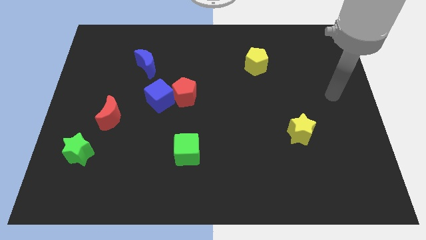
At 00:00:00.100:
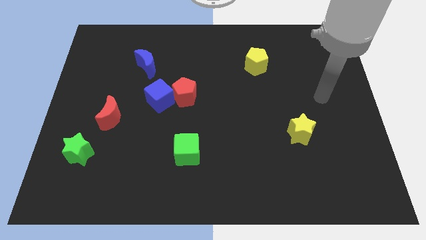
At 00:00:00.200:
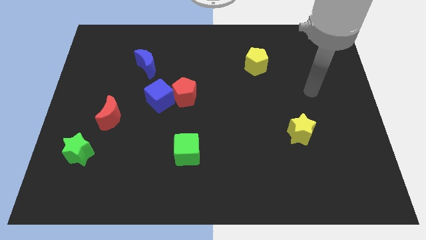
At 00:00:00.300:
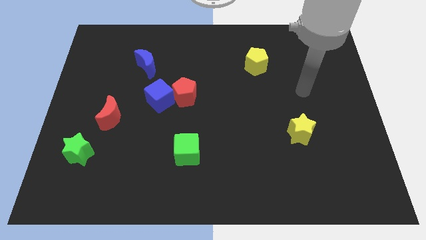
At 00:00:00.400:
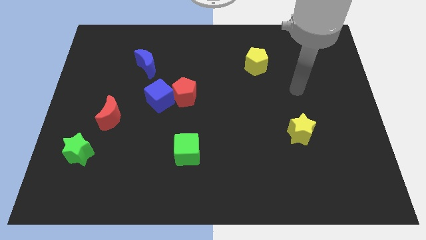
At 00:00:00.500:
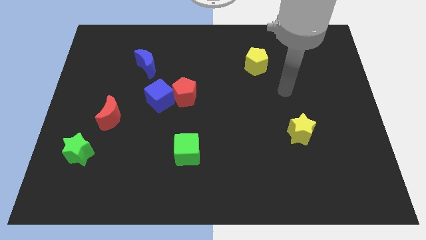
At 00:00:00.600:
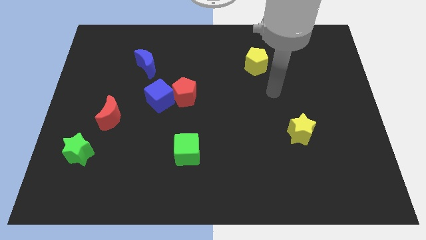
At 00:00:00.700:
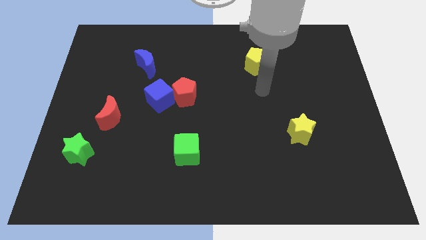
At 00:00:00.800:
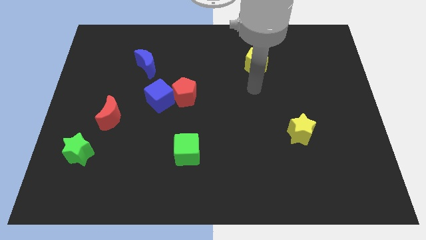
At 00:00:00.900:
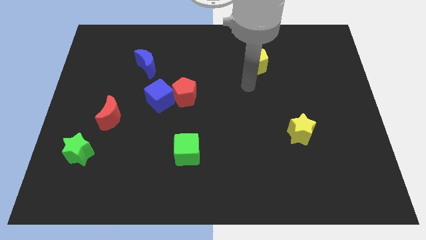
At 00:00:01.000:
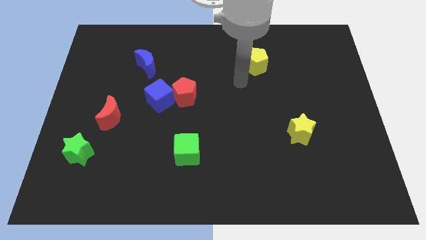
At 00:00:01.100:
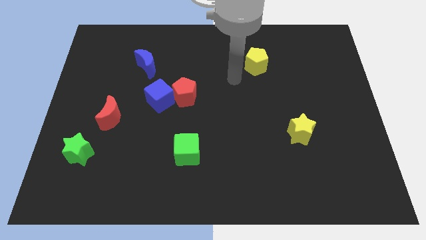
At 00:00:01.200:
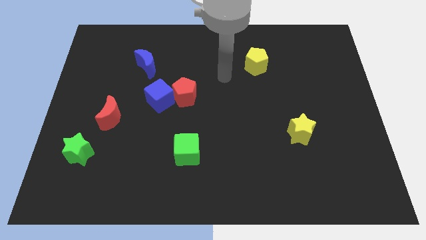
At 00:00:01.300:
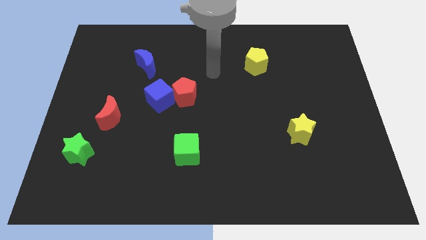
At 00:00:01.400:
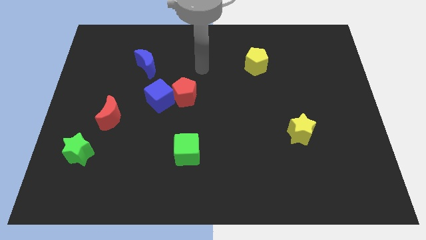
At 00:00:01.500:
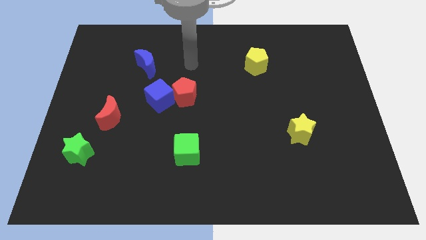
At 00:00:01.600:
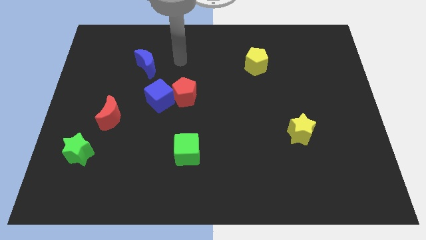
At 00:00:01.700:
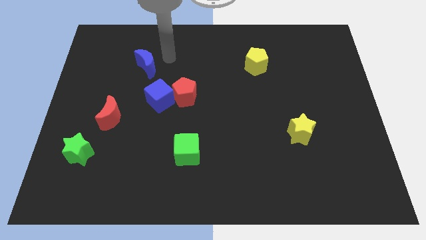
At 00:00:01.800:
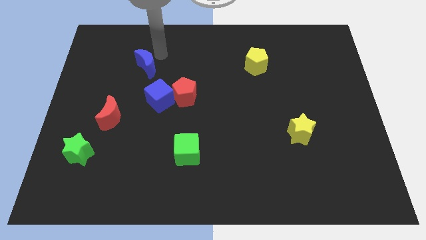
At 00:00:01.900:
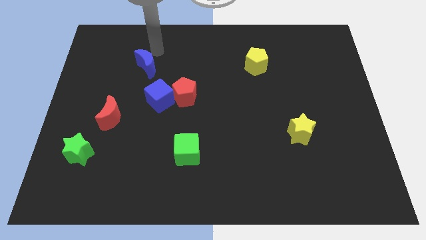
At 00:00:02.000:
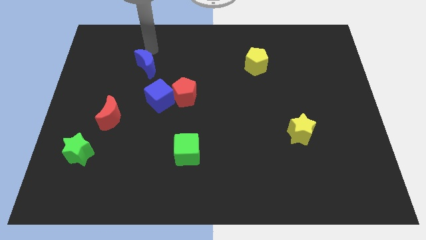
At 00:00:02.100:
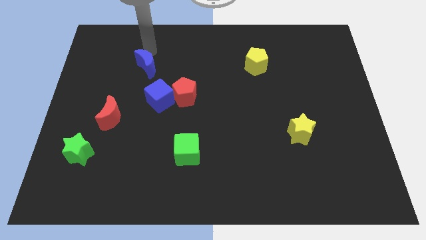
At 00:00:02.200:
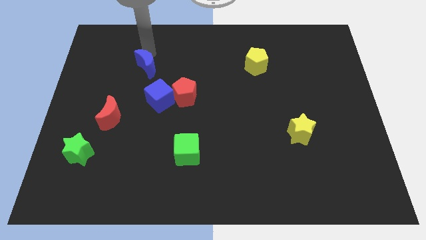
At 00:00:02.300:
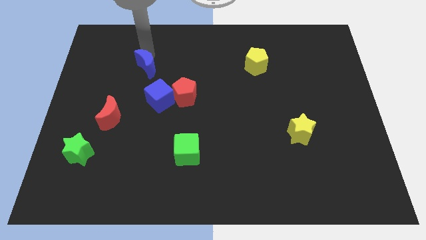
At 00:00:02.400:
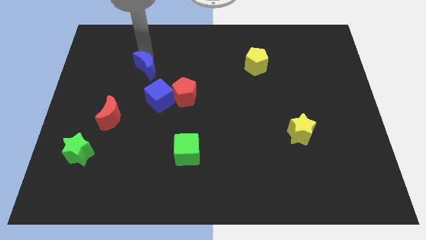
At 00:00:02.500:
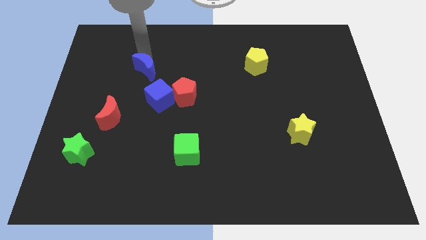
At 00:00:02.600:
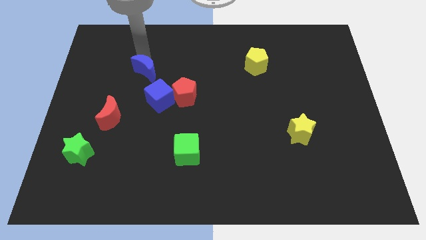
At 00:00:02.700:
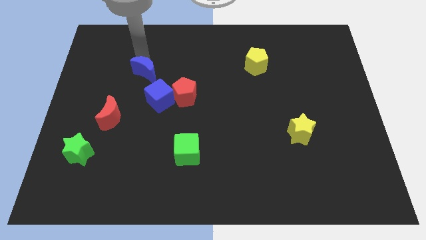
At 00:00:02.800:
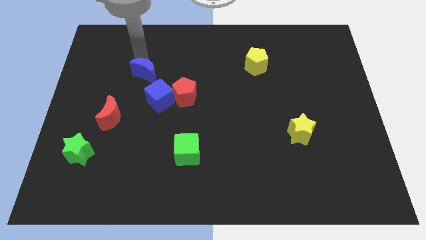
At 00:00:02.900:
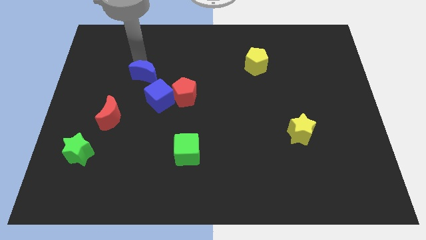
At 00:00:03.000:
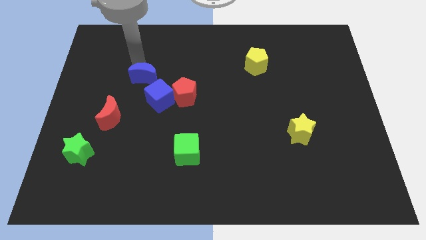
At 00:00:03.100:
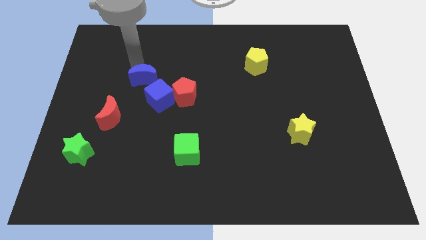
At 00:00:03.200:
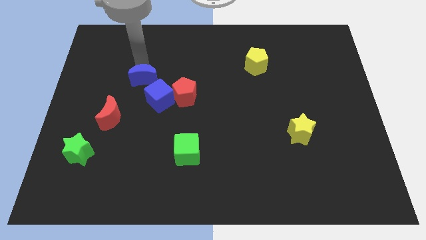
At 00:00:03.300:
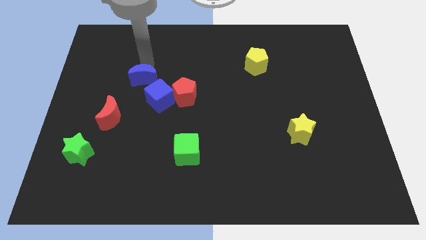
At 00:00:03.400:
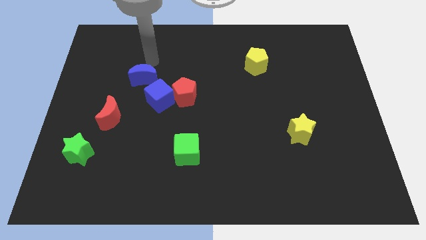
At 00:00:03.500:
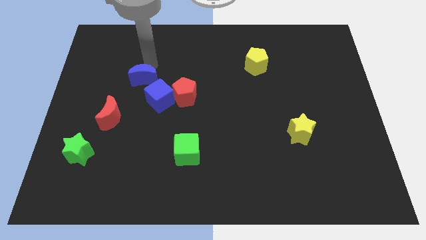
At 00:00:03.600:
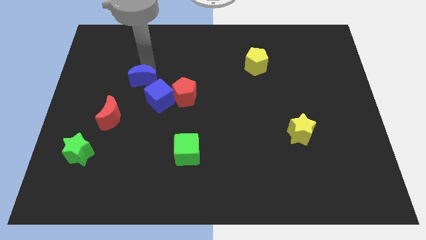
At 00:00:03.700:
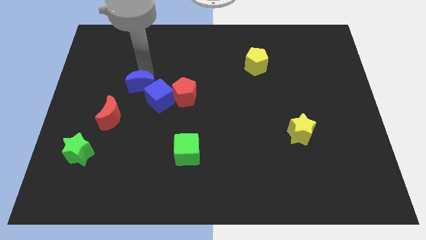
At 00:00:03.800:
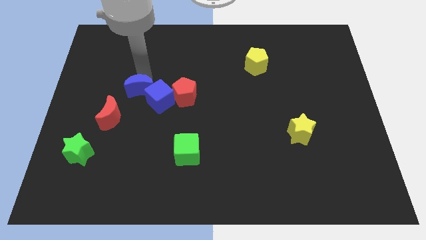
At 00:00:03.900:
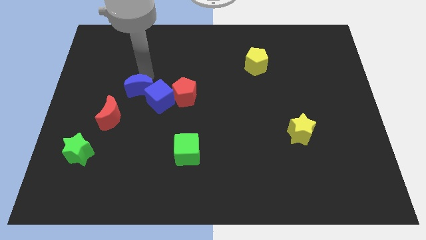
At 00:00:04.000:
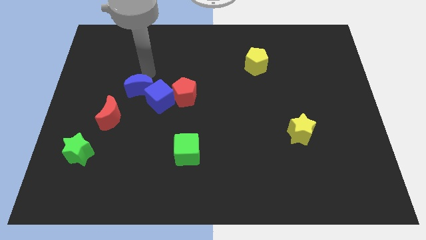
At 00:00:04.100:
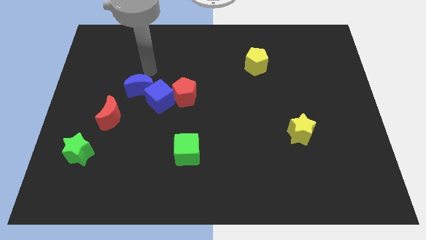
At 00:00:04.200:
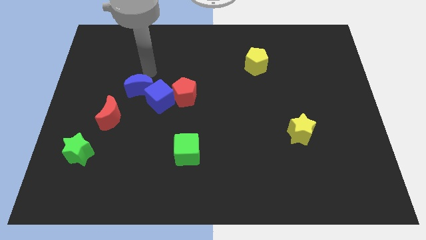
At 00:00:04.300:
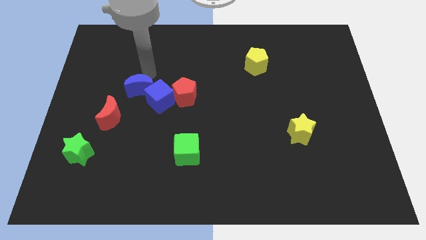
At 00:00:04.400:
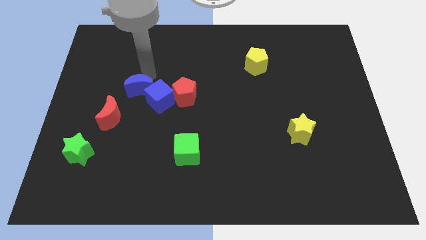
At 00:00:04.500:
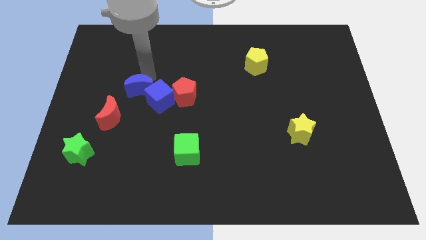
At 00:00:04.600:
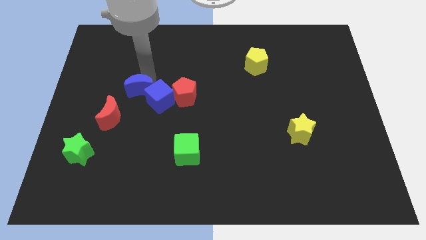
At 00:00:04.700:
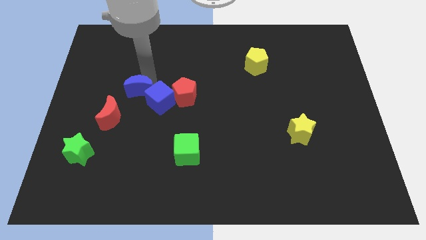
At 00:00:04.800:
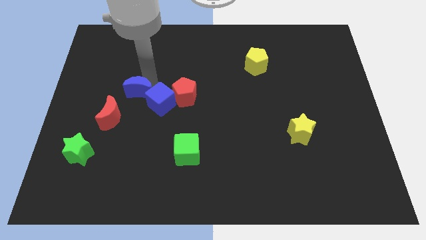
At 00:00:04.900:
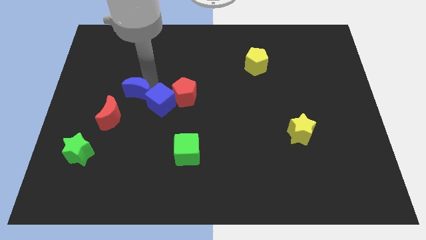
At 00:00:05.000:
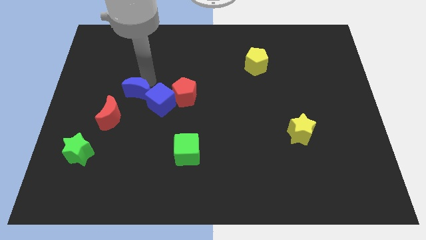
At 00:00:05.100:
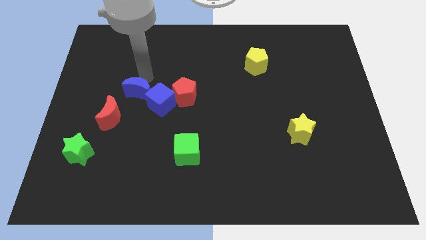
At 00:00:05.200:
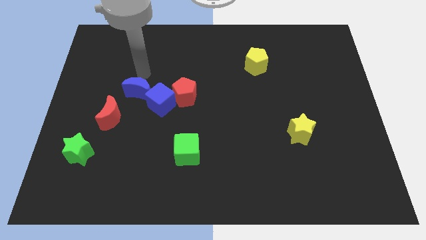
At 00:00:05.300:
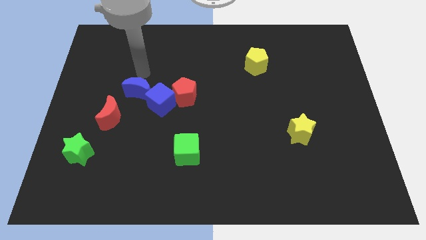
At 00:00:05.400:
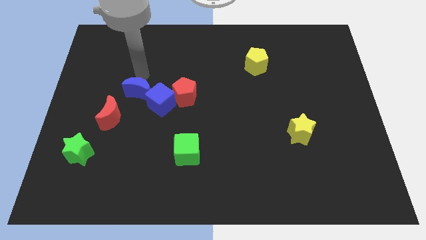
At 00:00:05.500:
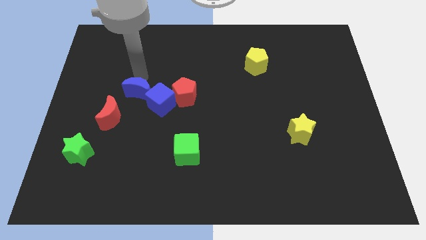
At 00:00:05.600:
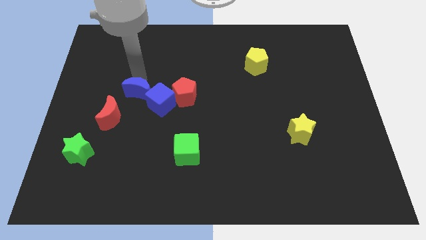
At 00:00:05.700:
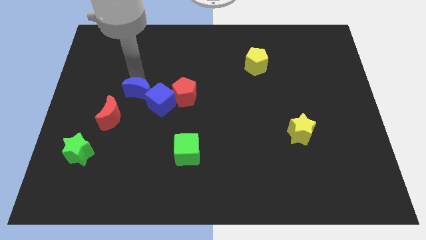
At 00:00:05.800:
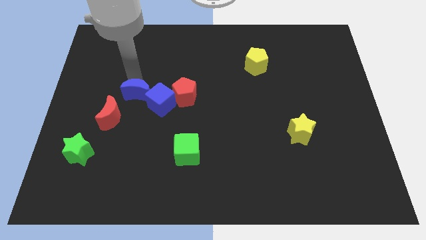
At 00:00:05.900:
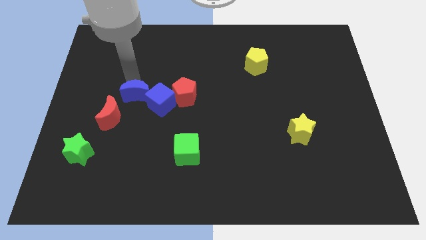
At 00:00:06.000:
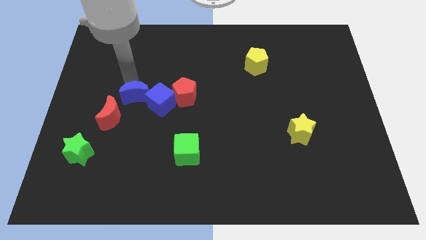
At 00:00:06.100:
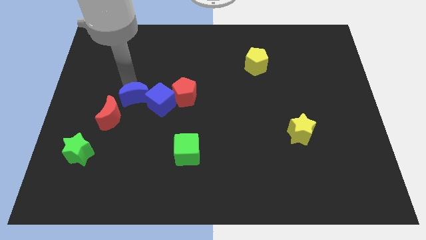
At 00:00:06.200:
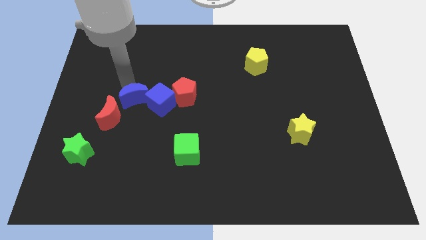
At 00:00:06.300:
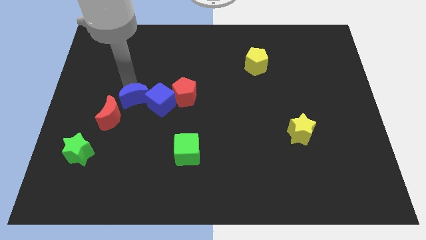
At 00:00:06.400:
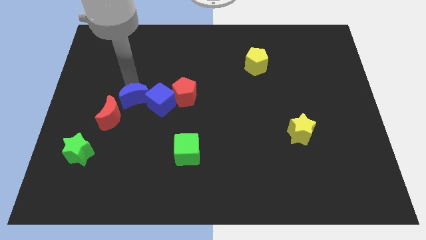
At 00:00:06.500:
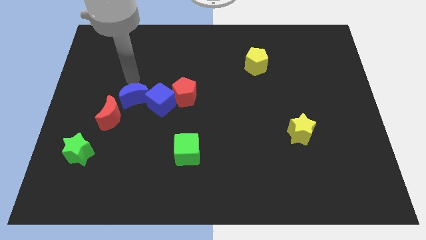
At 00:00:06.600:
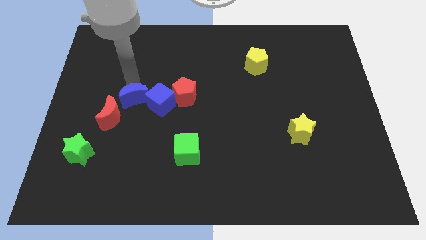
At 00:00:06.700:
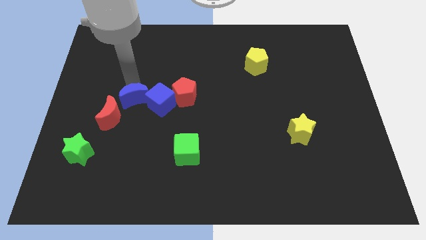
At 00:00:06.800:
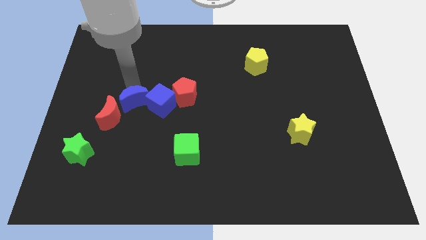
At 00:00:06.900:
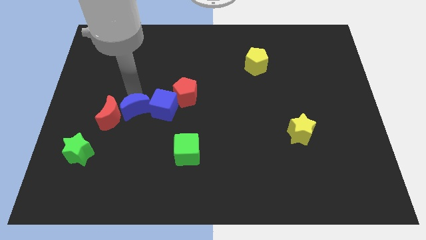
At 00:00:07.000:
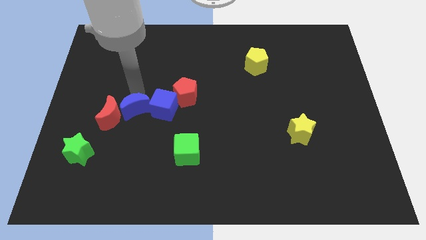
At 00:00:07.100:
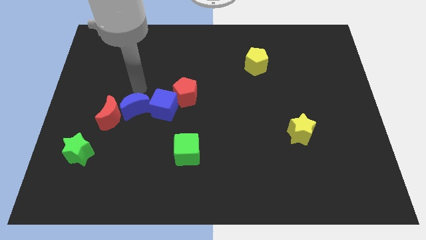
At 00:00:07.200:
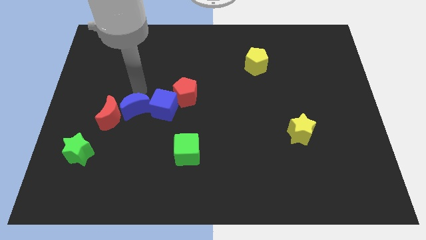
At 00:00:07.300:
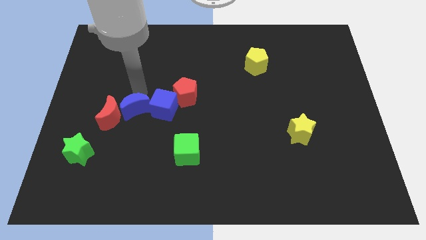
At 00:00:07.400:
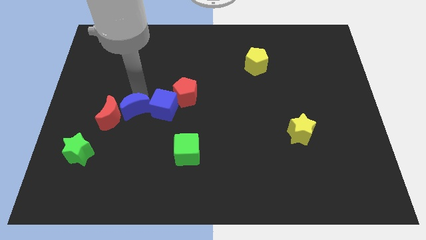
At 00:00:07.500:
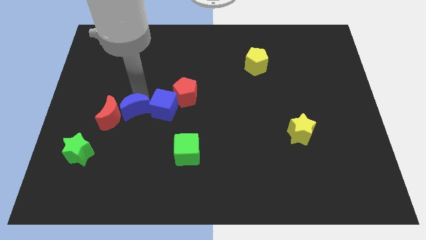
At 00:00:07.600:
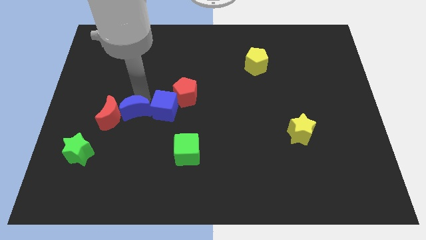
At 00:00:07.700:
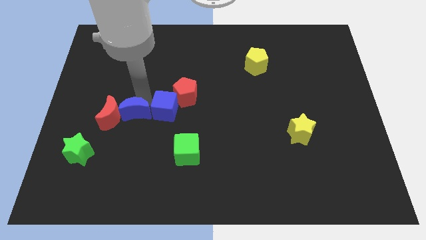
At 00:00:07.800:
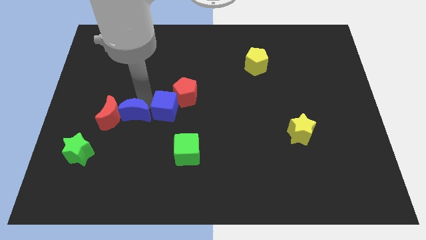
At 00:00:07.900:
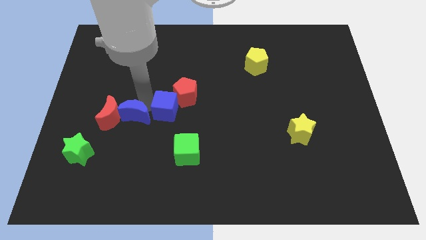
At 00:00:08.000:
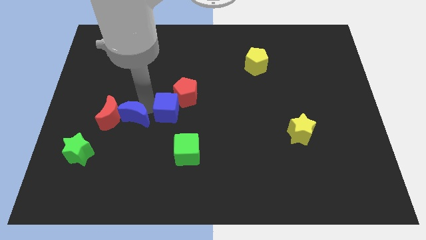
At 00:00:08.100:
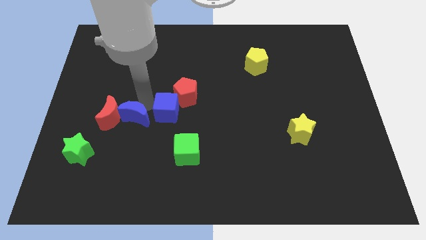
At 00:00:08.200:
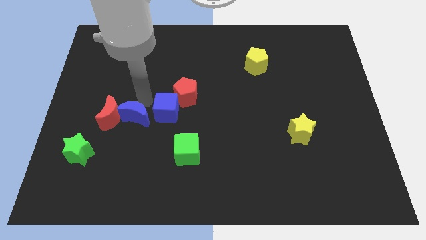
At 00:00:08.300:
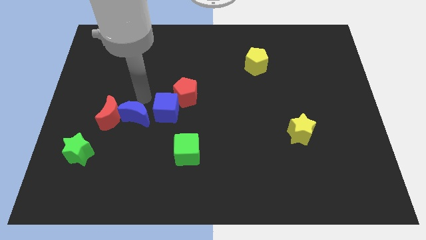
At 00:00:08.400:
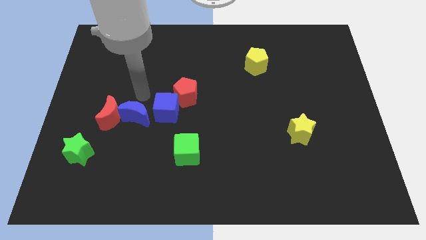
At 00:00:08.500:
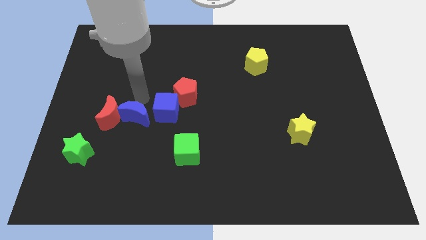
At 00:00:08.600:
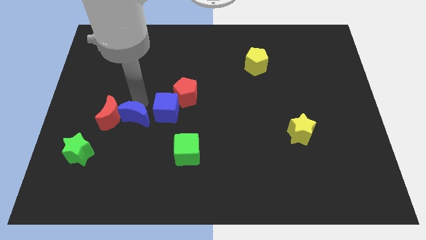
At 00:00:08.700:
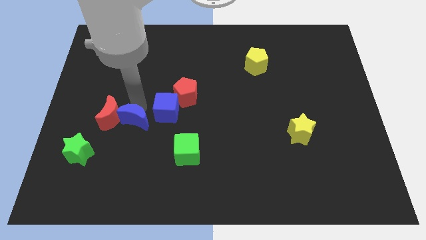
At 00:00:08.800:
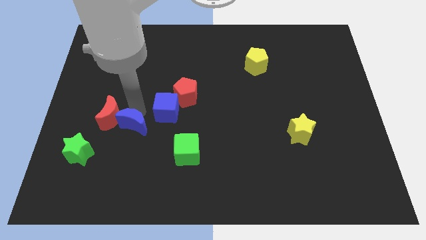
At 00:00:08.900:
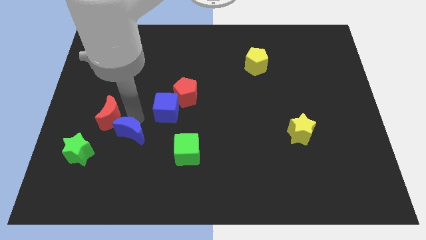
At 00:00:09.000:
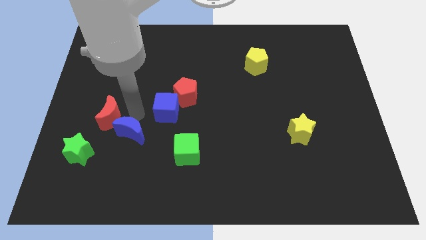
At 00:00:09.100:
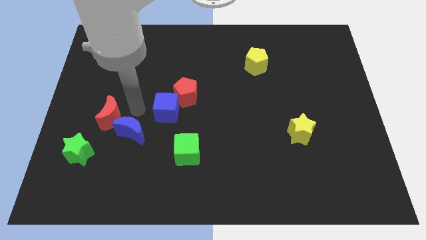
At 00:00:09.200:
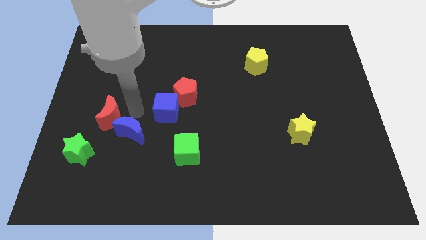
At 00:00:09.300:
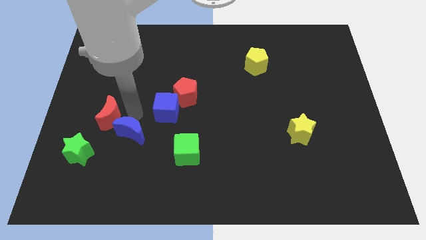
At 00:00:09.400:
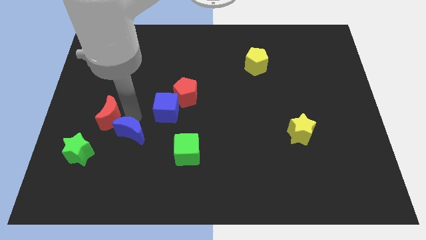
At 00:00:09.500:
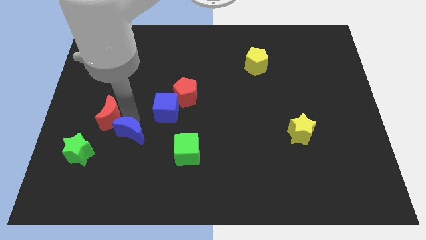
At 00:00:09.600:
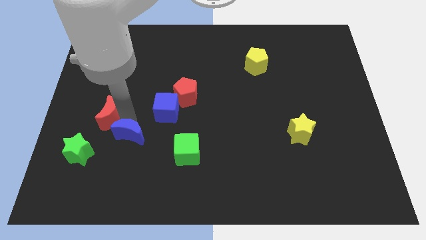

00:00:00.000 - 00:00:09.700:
move the blue moon to the right of the green star
